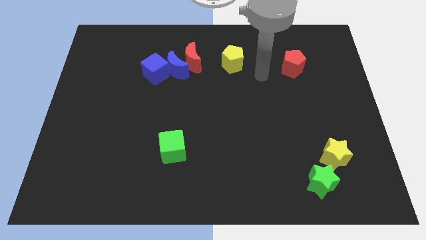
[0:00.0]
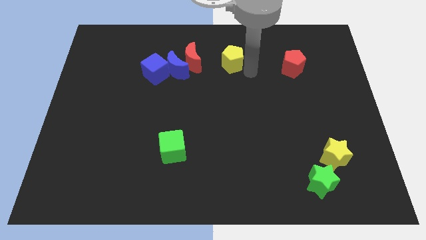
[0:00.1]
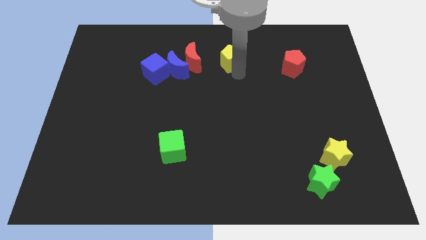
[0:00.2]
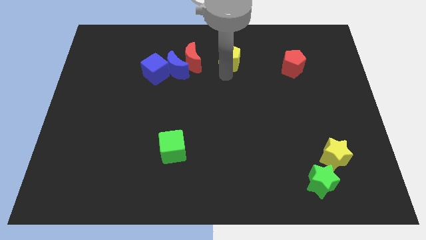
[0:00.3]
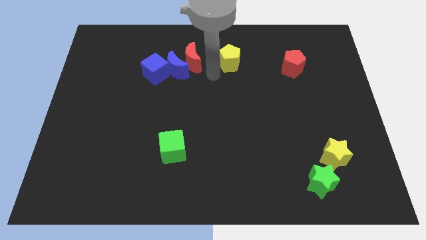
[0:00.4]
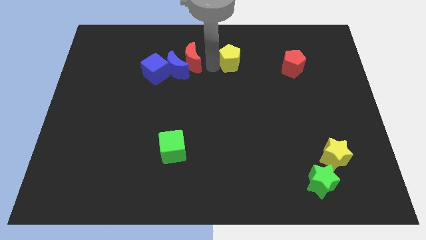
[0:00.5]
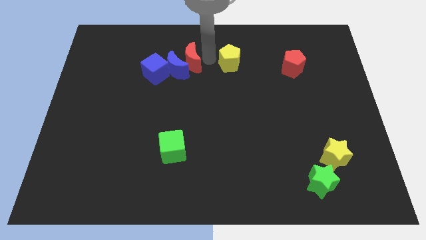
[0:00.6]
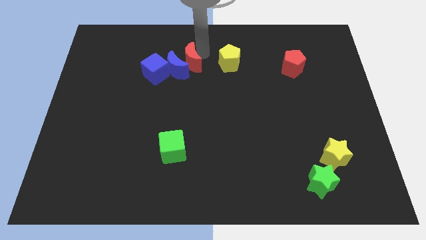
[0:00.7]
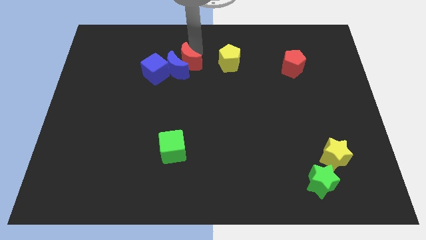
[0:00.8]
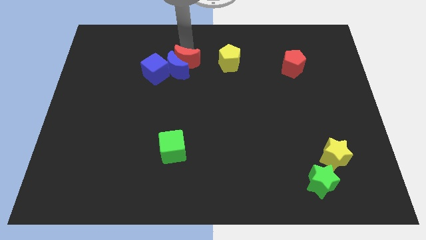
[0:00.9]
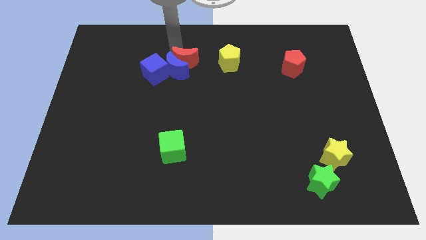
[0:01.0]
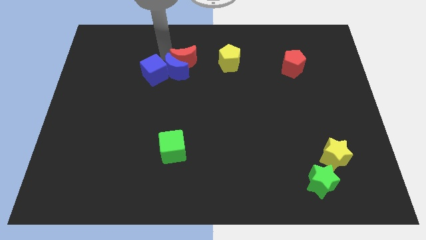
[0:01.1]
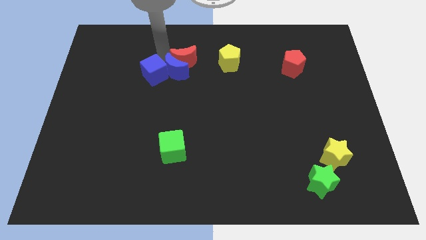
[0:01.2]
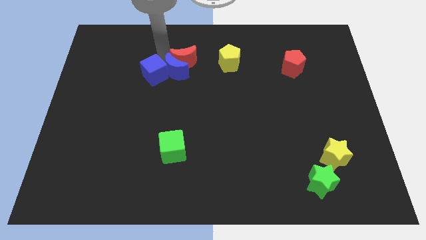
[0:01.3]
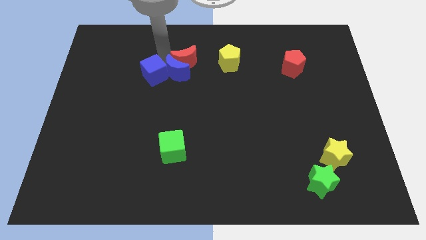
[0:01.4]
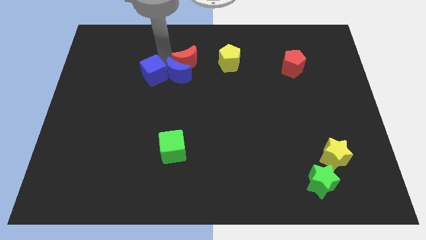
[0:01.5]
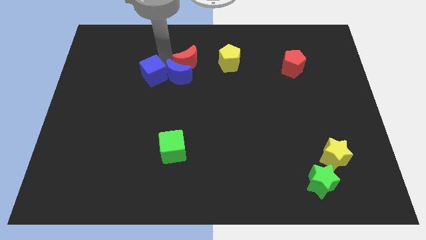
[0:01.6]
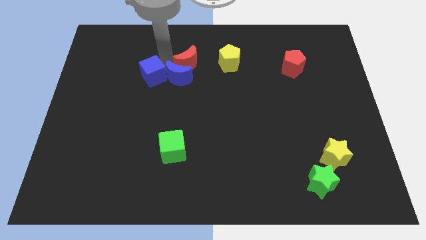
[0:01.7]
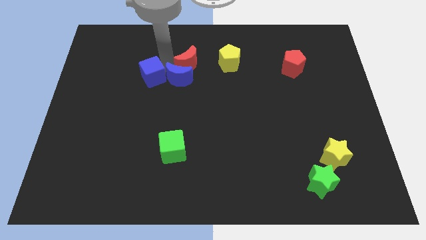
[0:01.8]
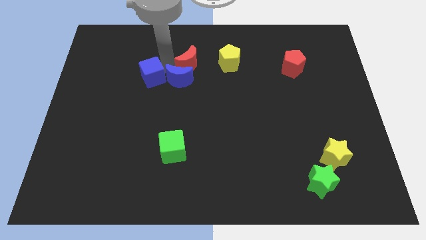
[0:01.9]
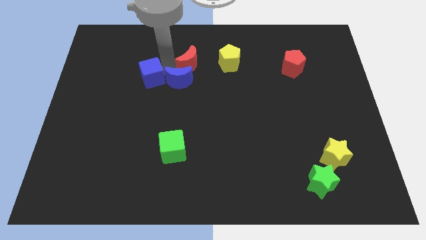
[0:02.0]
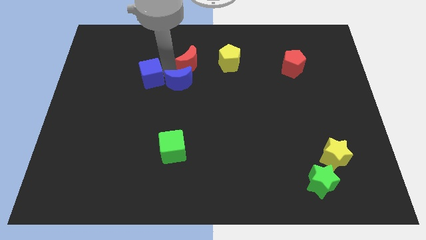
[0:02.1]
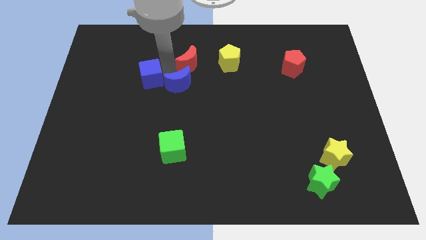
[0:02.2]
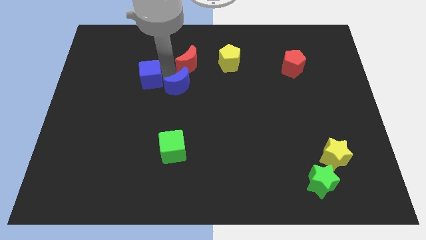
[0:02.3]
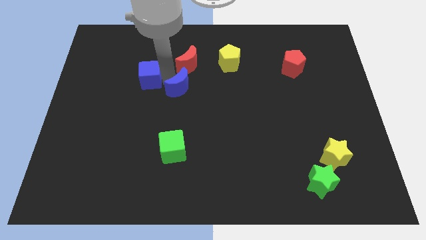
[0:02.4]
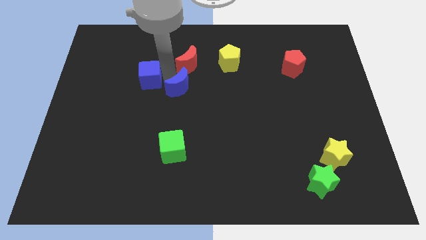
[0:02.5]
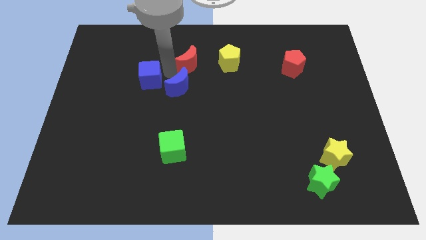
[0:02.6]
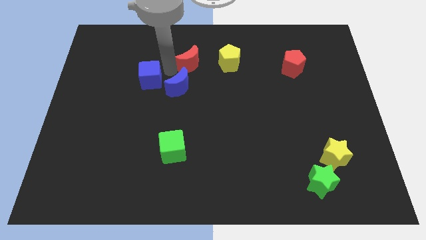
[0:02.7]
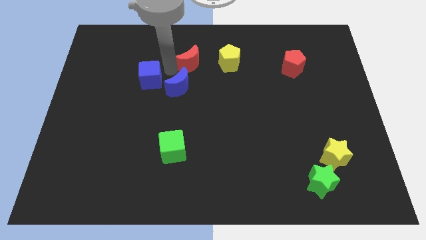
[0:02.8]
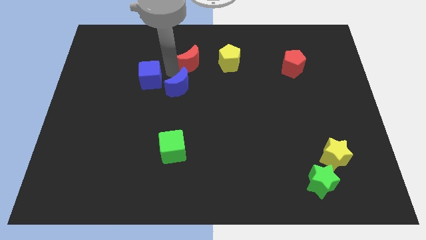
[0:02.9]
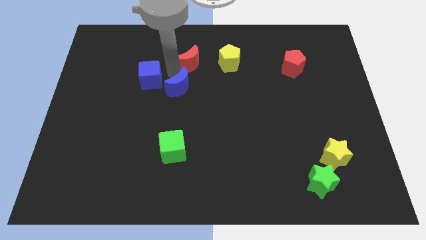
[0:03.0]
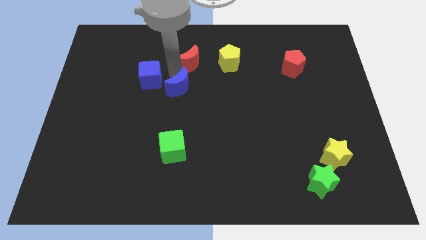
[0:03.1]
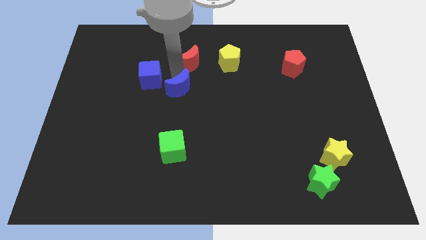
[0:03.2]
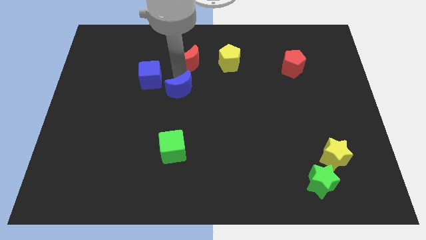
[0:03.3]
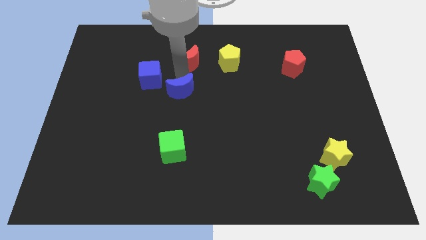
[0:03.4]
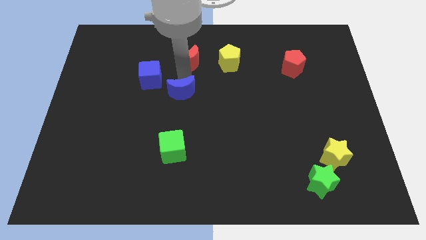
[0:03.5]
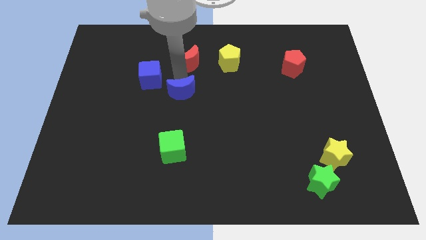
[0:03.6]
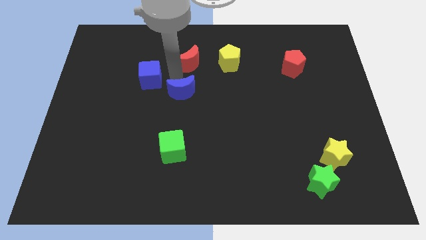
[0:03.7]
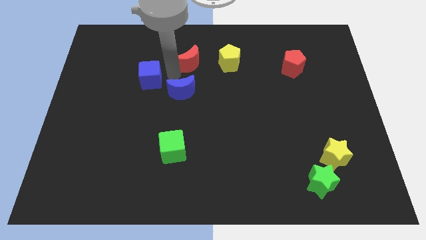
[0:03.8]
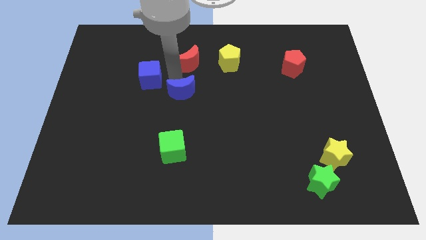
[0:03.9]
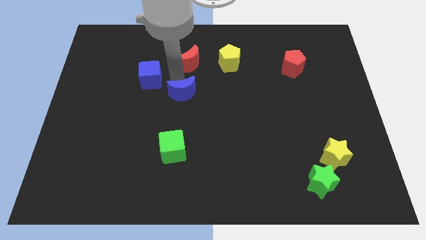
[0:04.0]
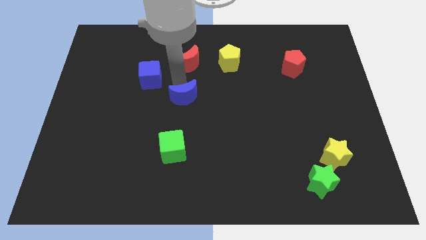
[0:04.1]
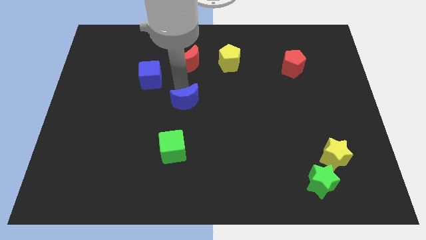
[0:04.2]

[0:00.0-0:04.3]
move the blue moon away from the red moon and blue cube

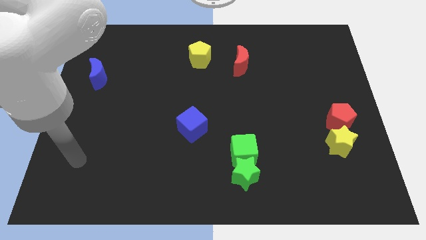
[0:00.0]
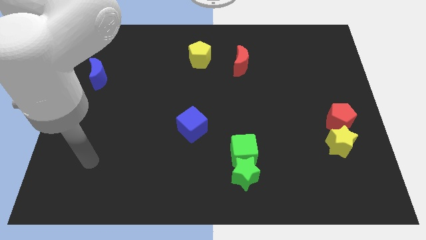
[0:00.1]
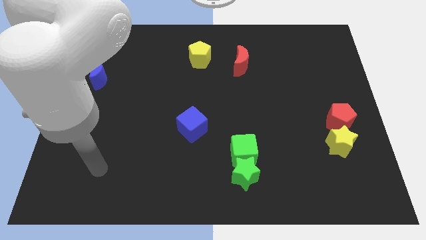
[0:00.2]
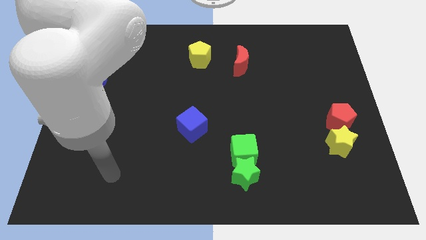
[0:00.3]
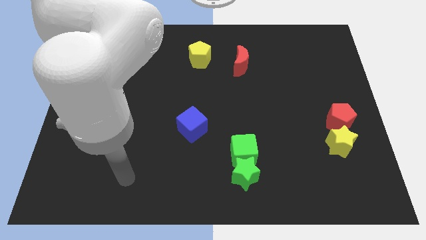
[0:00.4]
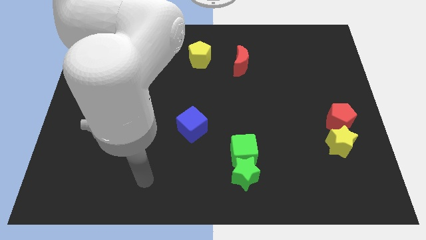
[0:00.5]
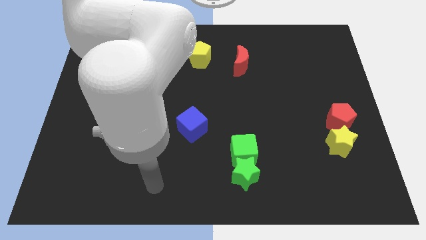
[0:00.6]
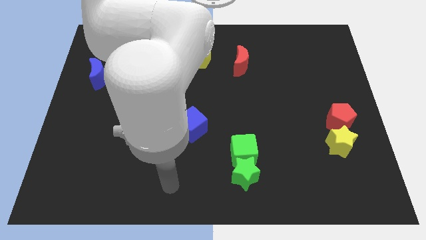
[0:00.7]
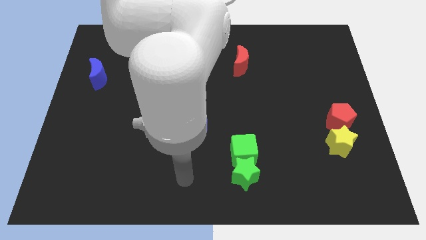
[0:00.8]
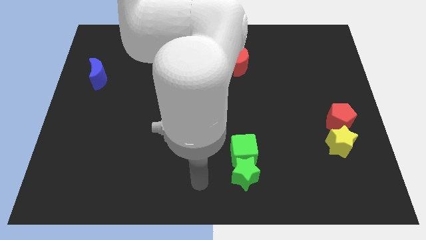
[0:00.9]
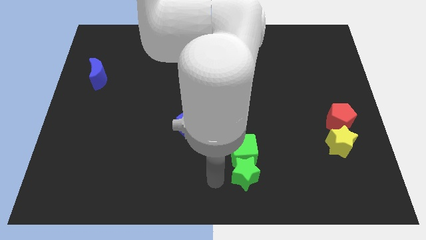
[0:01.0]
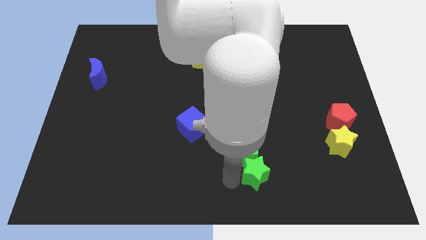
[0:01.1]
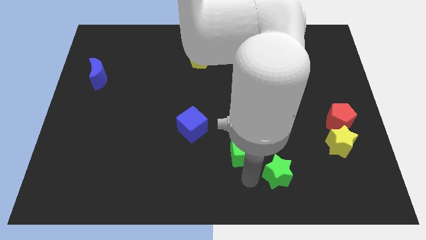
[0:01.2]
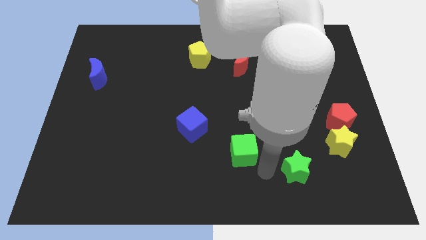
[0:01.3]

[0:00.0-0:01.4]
separate the green cube from the green star

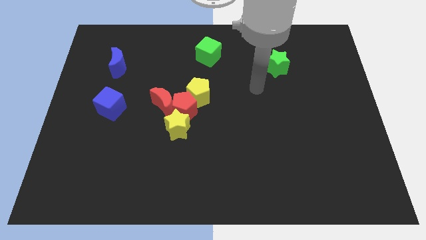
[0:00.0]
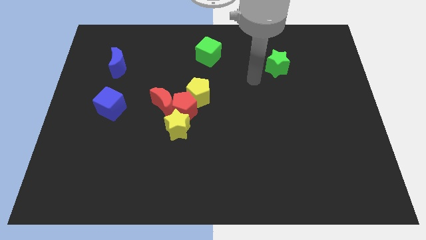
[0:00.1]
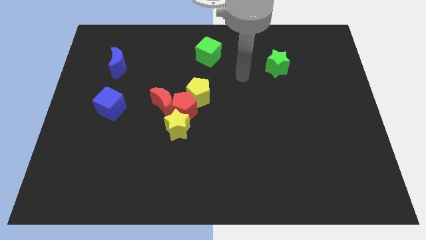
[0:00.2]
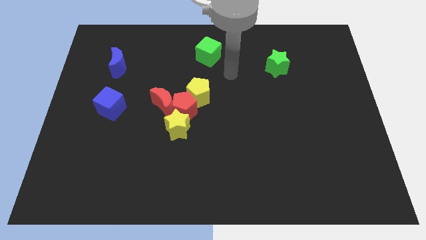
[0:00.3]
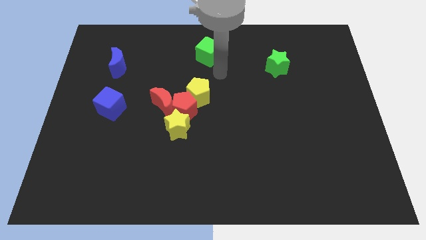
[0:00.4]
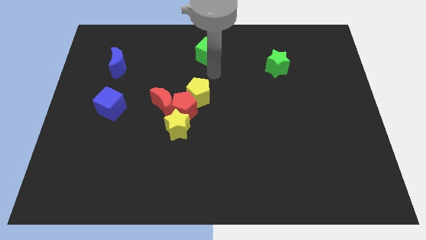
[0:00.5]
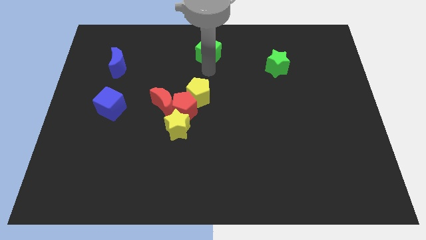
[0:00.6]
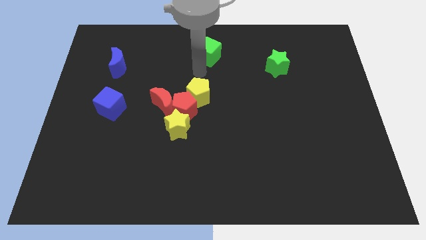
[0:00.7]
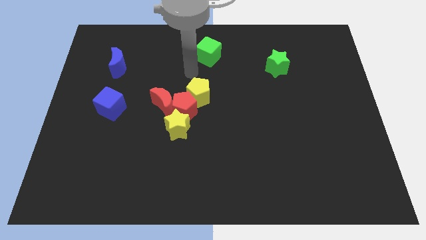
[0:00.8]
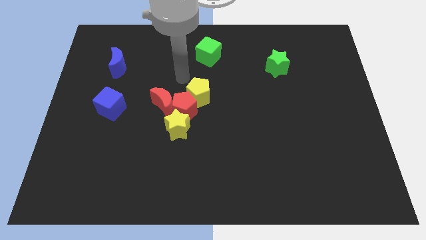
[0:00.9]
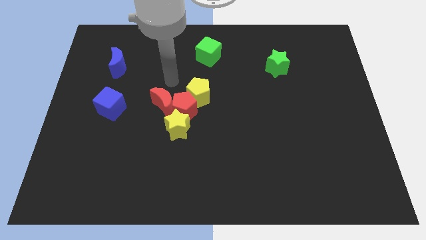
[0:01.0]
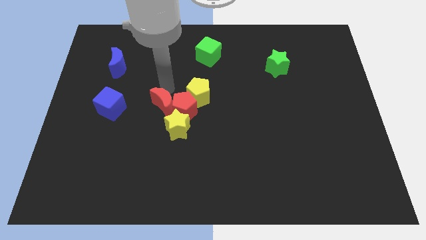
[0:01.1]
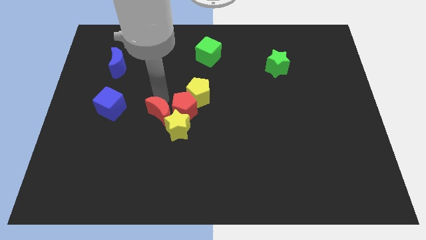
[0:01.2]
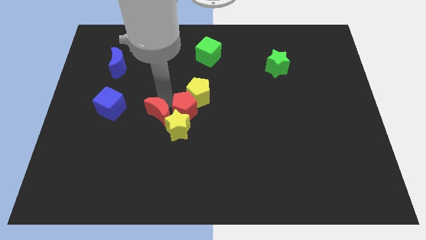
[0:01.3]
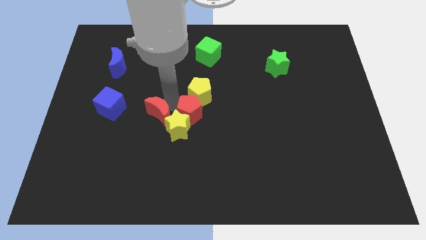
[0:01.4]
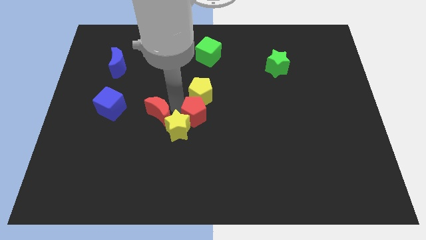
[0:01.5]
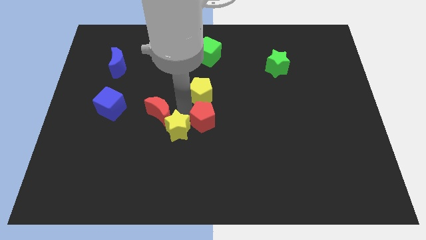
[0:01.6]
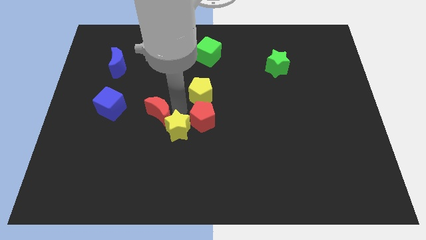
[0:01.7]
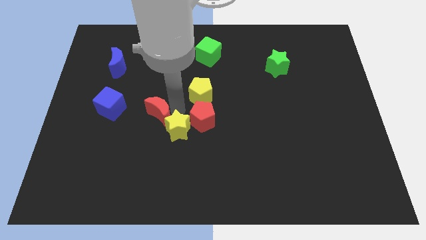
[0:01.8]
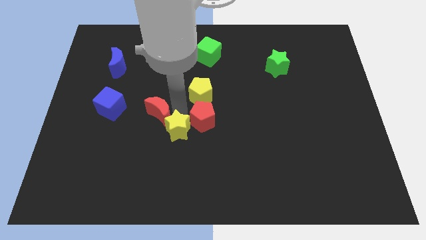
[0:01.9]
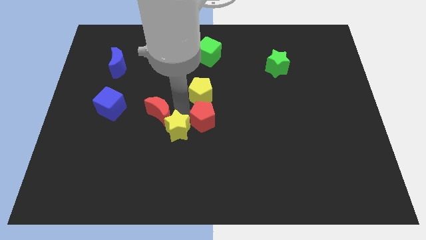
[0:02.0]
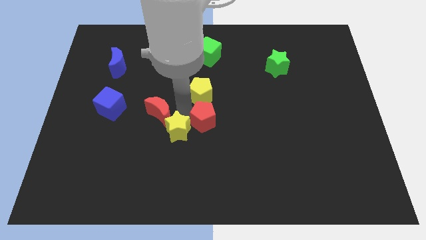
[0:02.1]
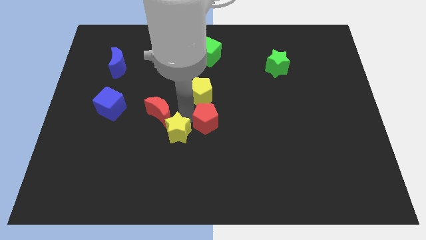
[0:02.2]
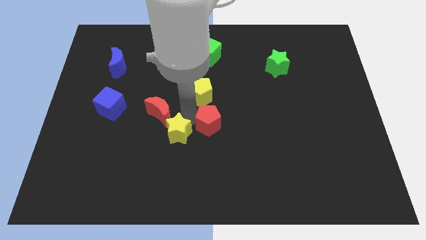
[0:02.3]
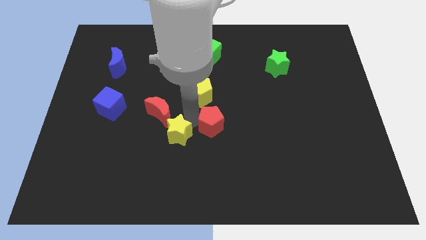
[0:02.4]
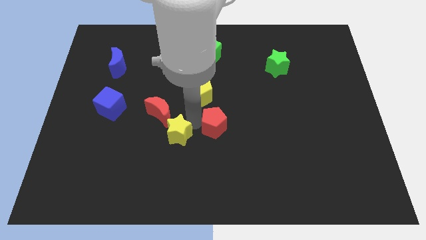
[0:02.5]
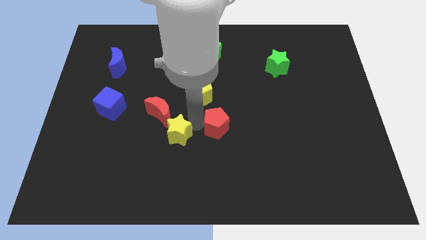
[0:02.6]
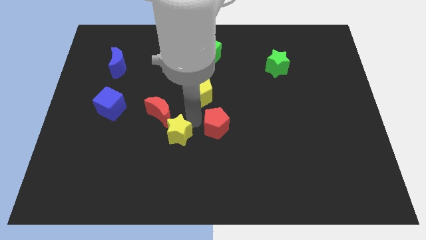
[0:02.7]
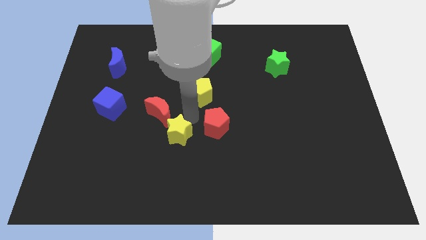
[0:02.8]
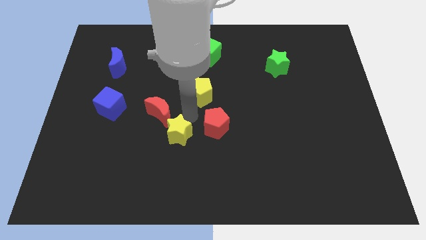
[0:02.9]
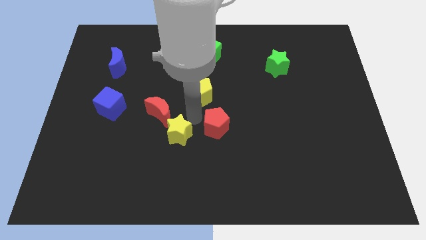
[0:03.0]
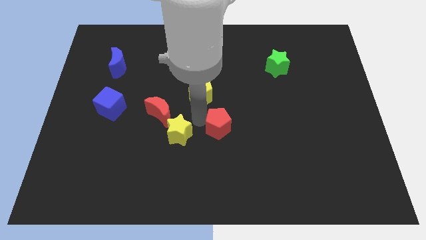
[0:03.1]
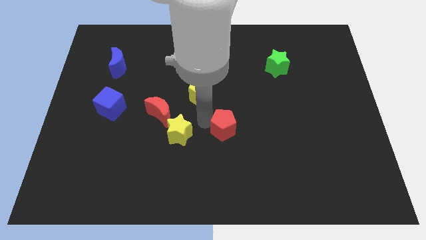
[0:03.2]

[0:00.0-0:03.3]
separate the red pentagon from the group

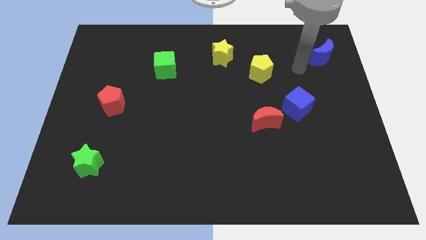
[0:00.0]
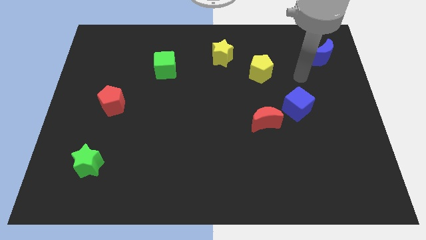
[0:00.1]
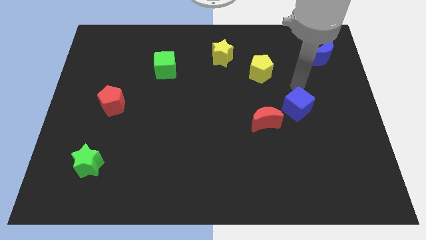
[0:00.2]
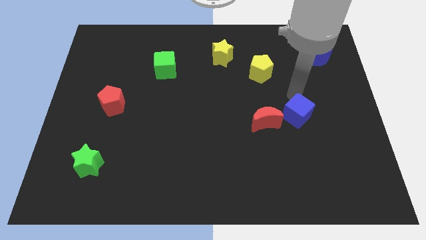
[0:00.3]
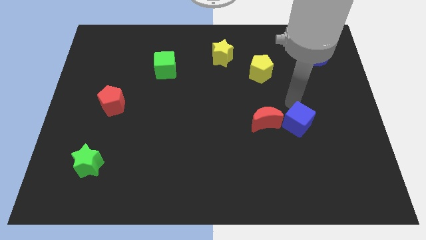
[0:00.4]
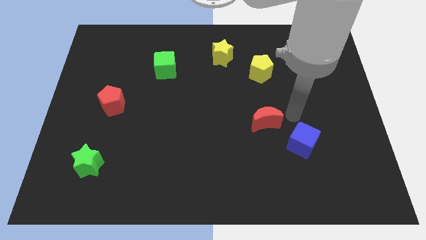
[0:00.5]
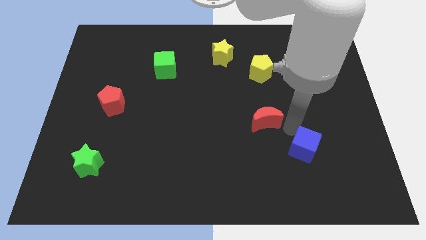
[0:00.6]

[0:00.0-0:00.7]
separate the red moon from the blue cube
